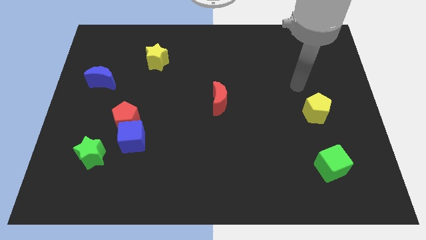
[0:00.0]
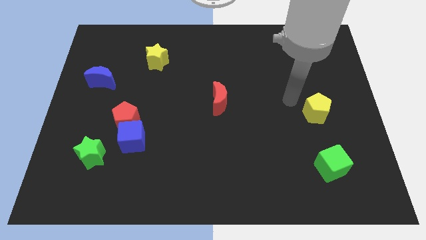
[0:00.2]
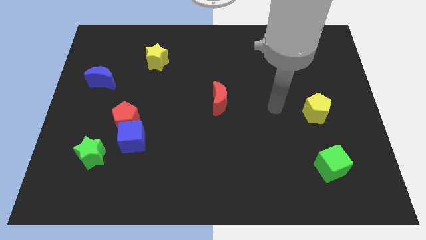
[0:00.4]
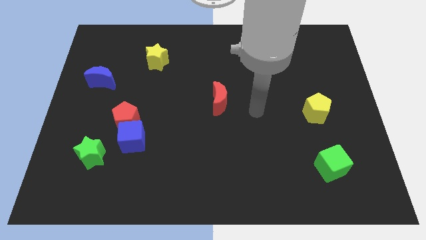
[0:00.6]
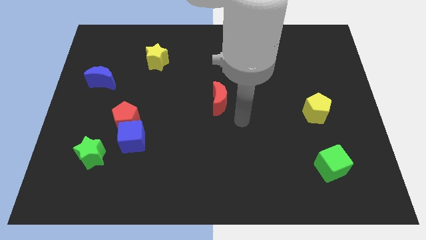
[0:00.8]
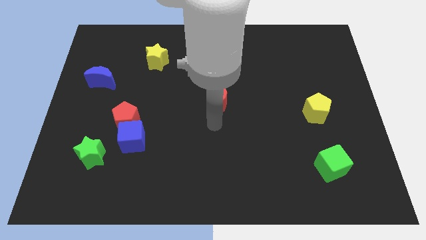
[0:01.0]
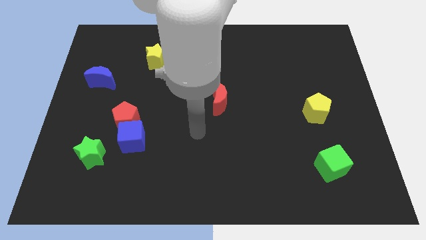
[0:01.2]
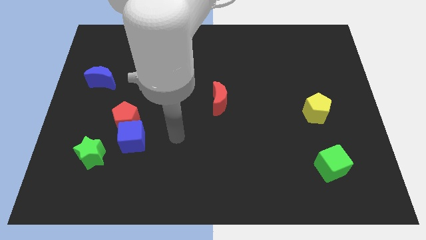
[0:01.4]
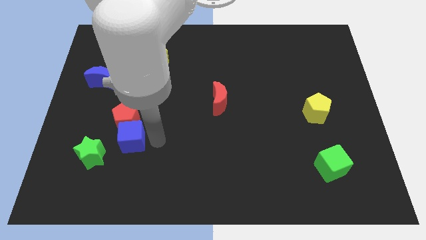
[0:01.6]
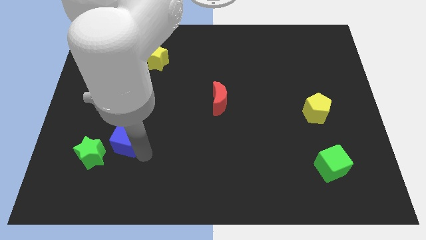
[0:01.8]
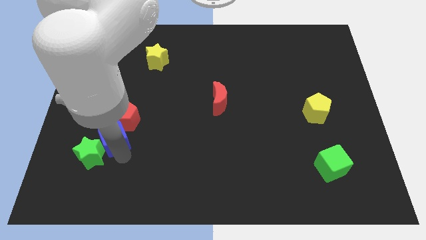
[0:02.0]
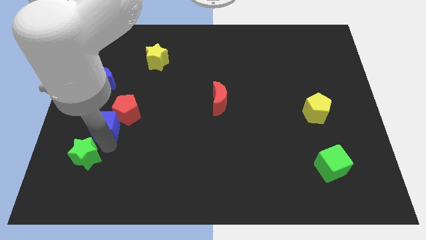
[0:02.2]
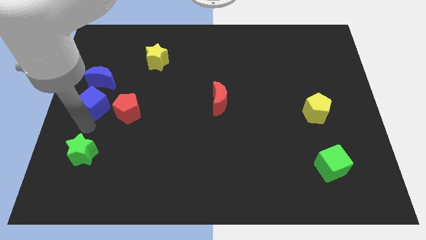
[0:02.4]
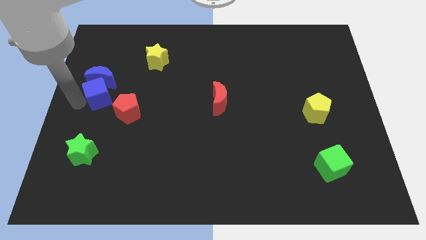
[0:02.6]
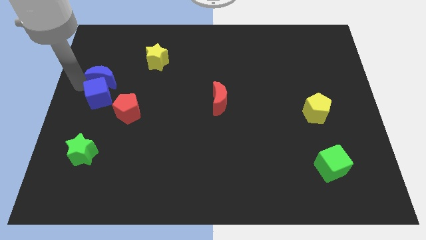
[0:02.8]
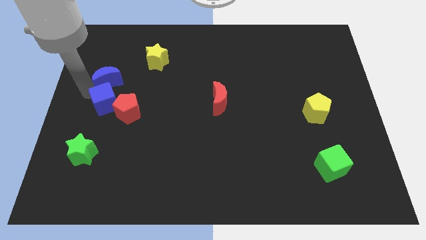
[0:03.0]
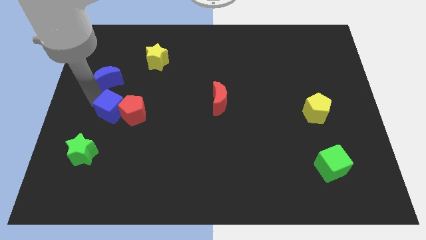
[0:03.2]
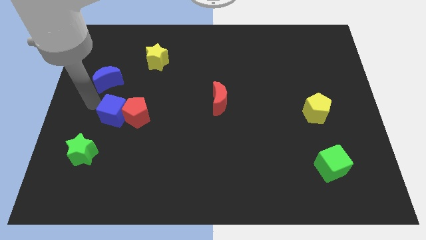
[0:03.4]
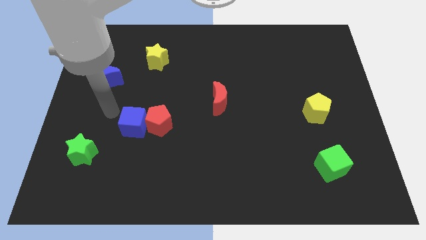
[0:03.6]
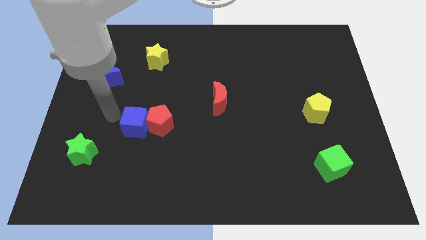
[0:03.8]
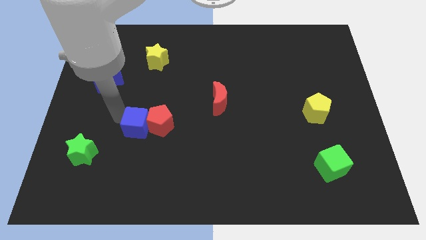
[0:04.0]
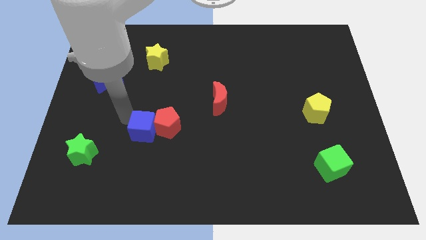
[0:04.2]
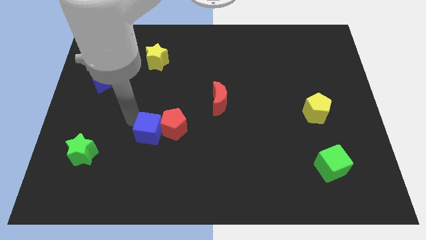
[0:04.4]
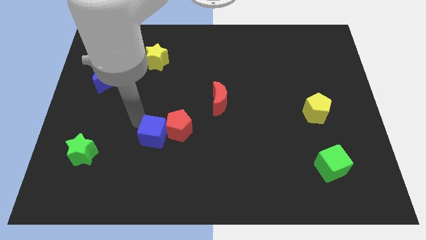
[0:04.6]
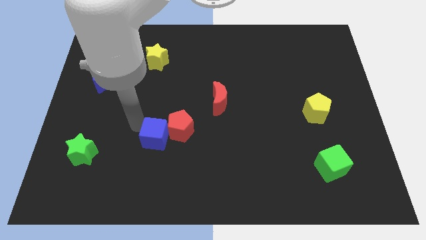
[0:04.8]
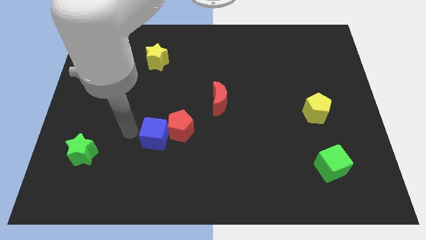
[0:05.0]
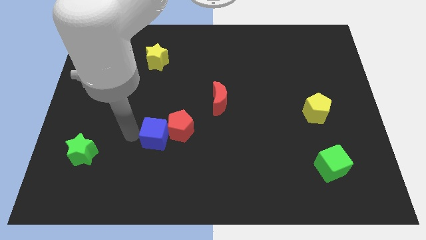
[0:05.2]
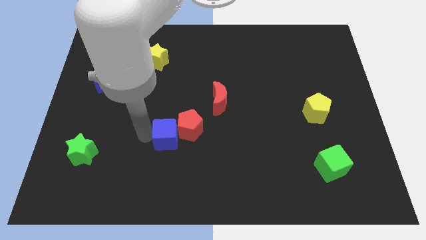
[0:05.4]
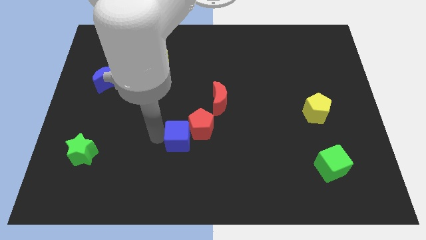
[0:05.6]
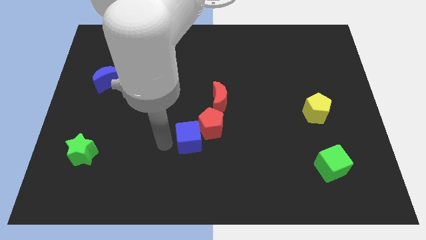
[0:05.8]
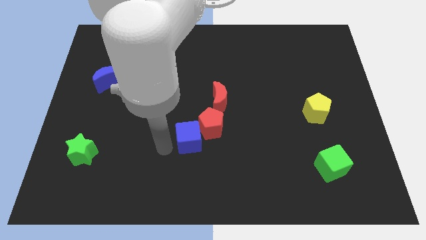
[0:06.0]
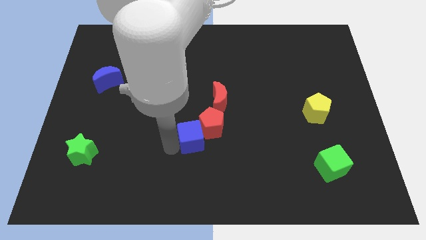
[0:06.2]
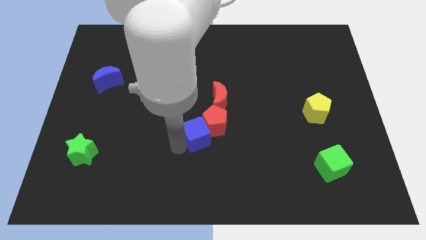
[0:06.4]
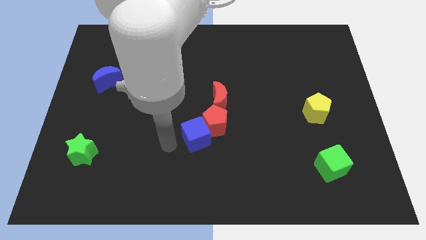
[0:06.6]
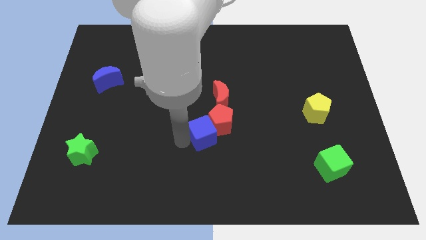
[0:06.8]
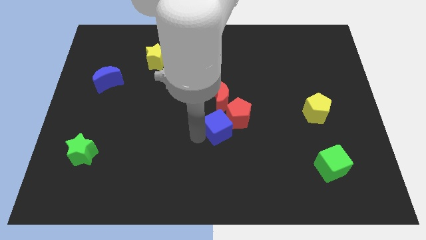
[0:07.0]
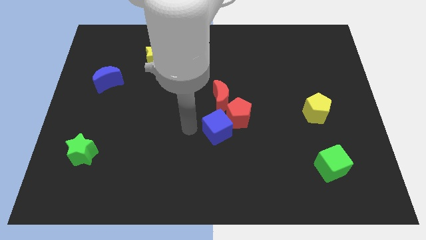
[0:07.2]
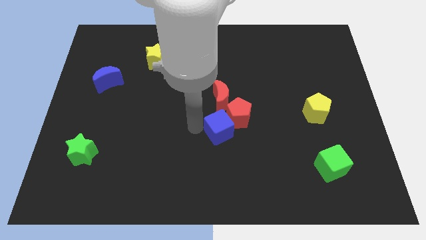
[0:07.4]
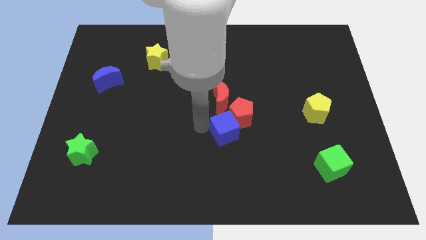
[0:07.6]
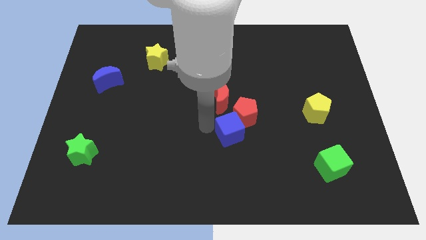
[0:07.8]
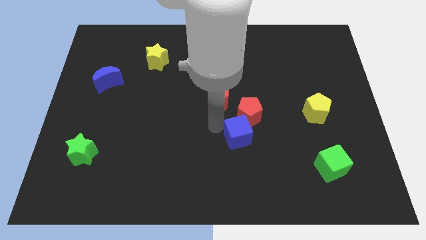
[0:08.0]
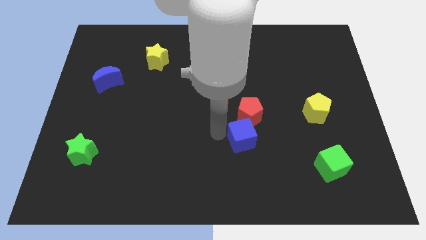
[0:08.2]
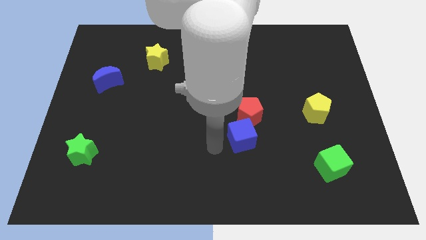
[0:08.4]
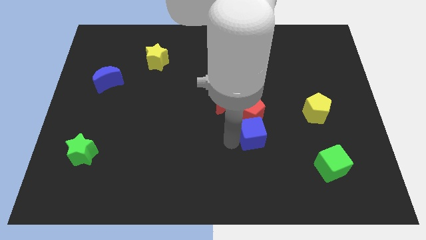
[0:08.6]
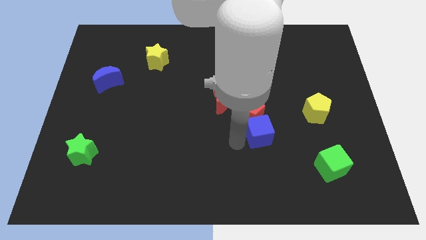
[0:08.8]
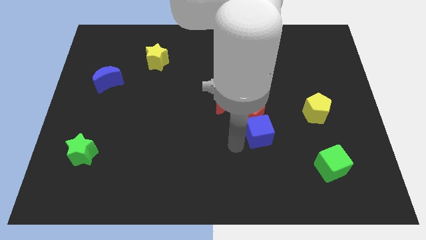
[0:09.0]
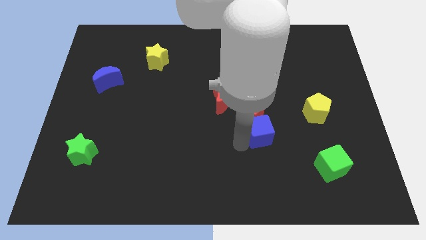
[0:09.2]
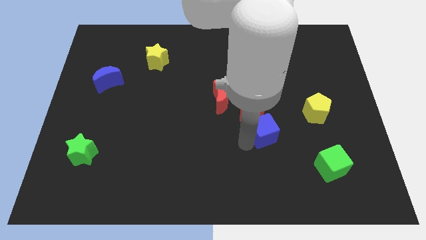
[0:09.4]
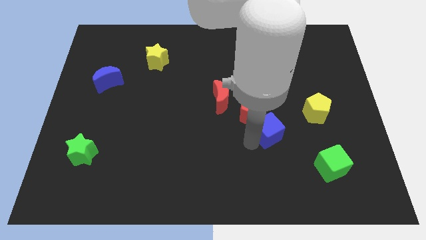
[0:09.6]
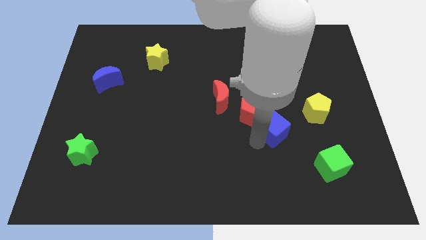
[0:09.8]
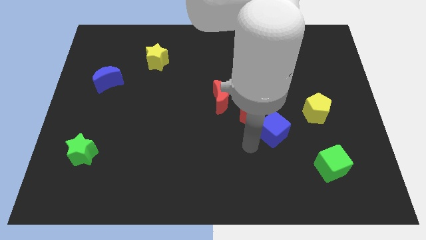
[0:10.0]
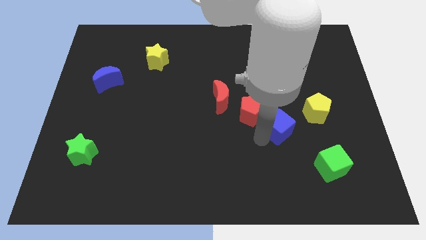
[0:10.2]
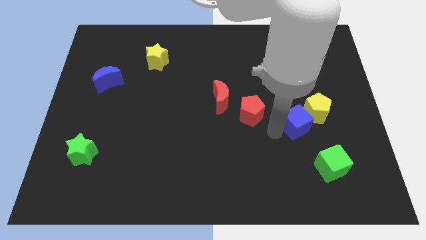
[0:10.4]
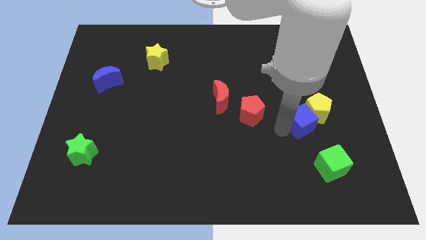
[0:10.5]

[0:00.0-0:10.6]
put the blue cube next to the yellow pentagon

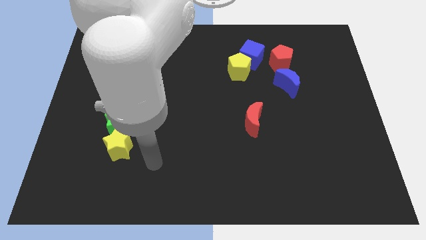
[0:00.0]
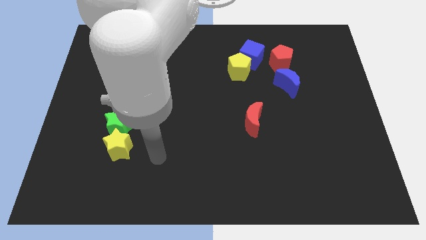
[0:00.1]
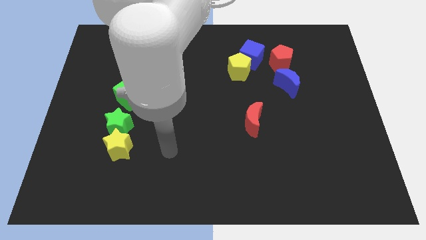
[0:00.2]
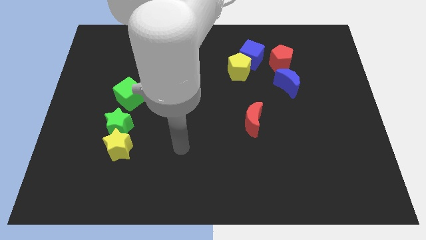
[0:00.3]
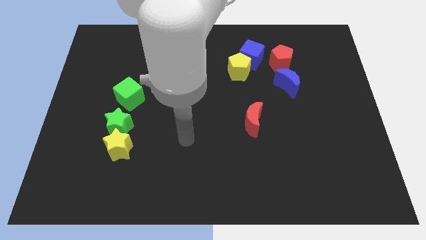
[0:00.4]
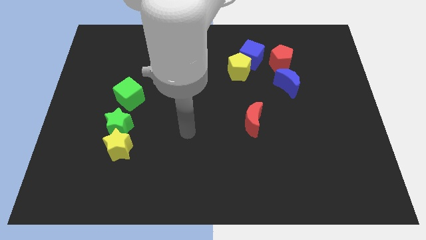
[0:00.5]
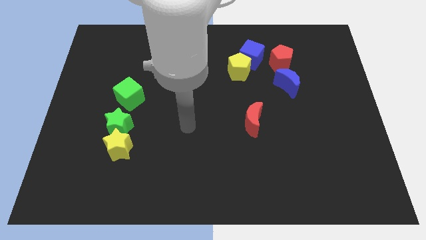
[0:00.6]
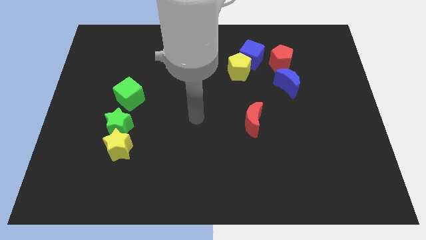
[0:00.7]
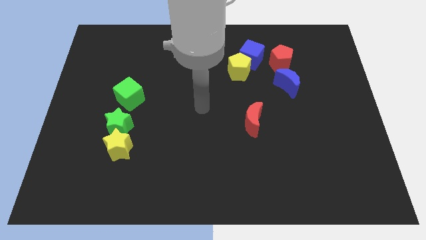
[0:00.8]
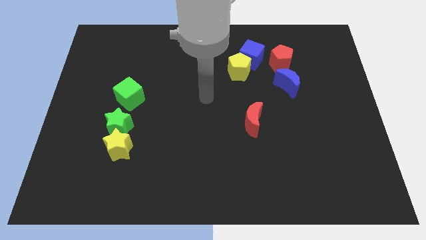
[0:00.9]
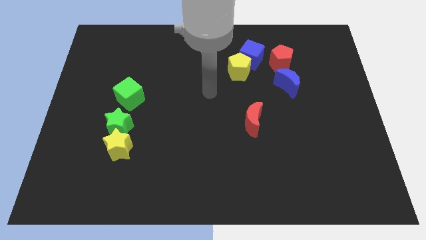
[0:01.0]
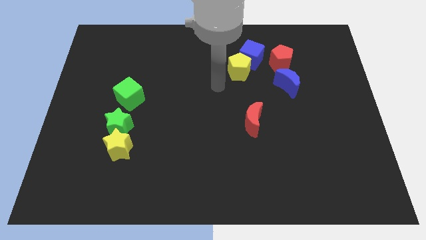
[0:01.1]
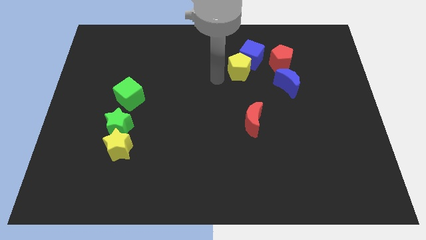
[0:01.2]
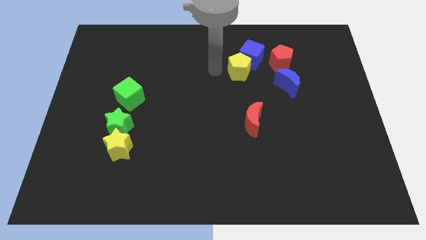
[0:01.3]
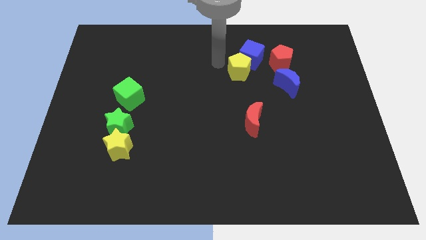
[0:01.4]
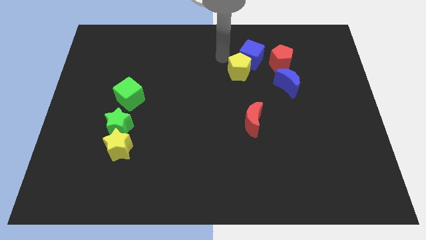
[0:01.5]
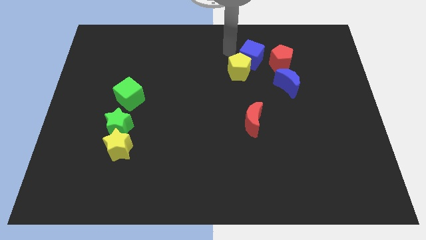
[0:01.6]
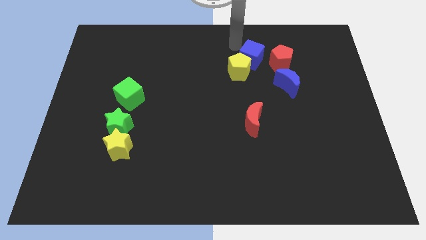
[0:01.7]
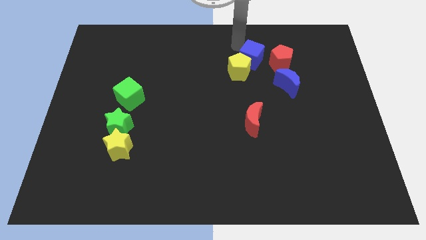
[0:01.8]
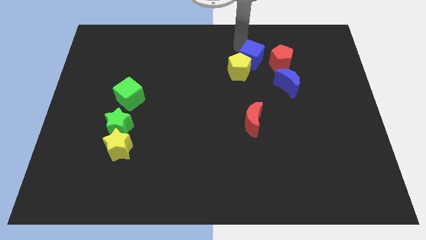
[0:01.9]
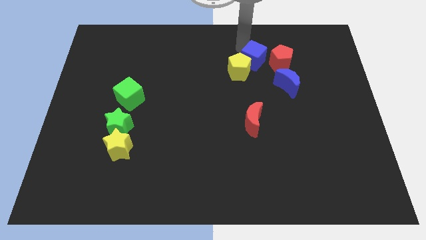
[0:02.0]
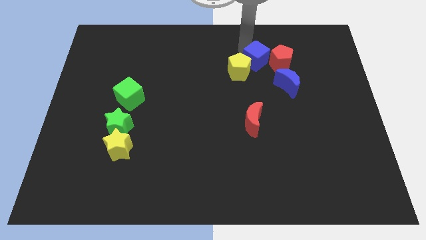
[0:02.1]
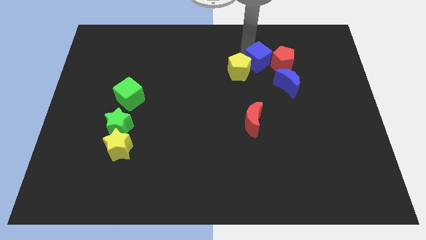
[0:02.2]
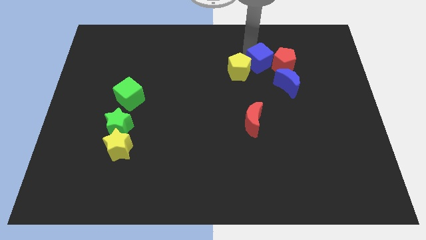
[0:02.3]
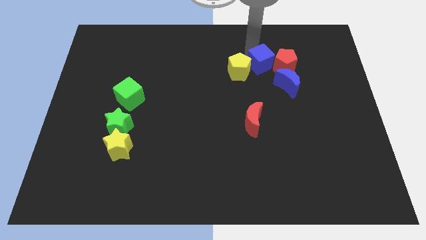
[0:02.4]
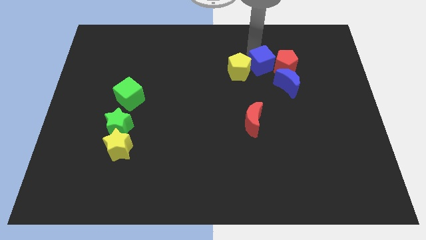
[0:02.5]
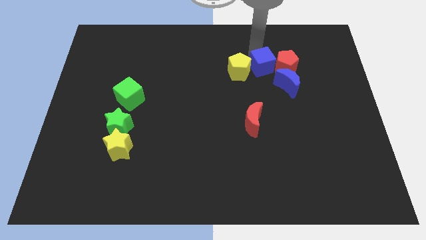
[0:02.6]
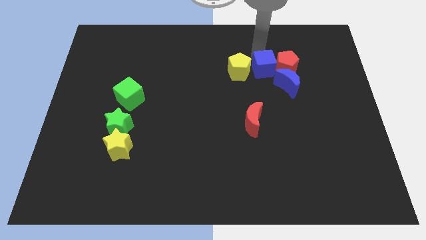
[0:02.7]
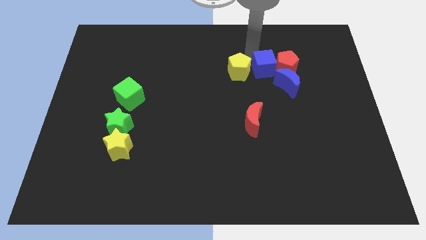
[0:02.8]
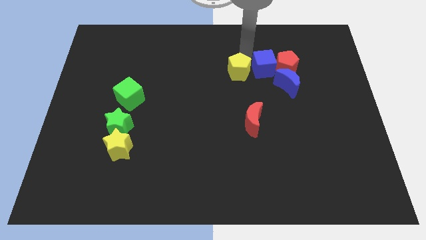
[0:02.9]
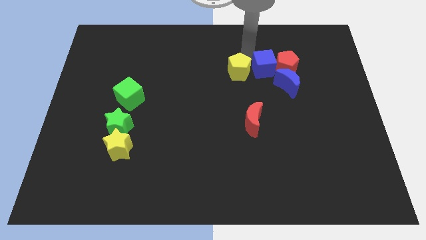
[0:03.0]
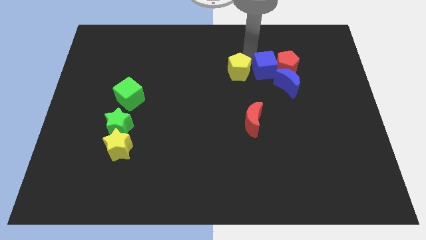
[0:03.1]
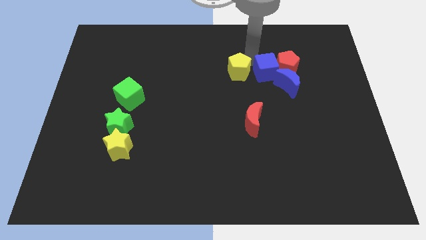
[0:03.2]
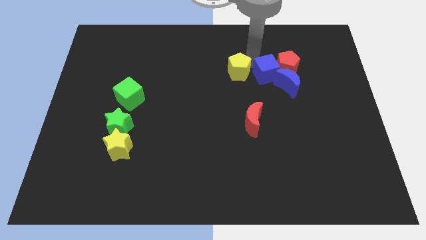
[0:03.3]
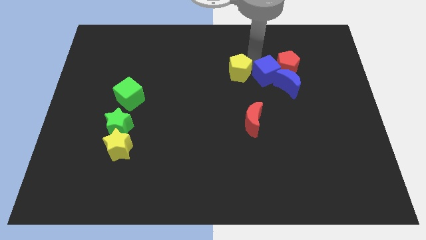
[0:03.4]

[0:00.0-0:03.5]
slide the blue cube to the blue moon
